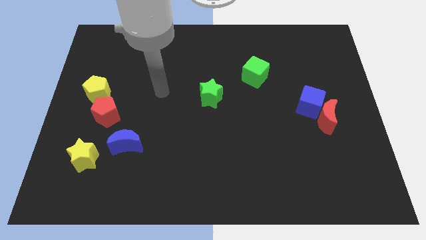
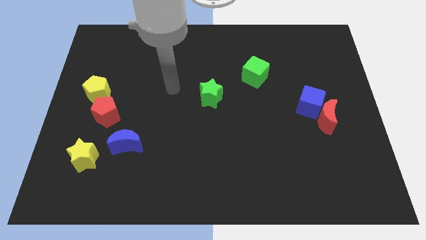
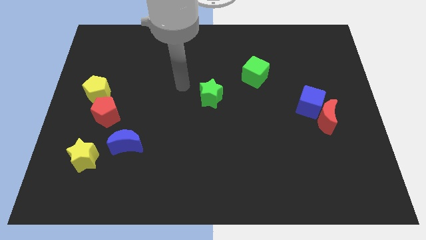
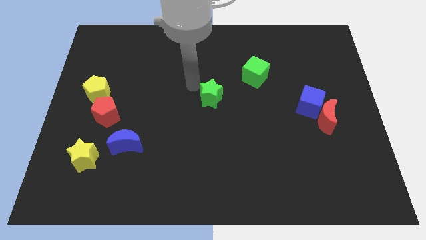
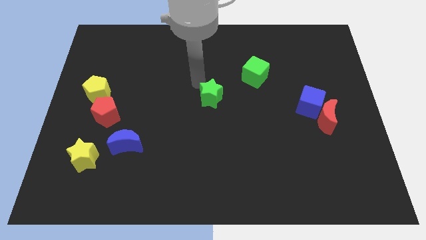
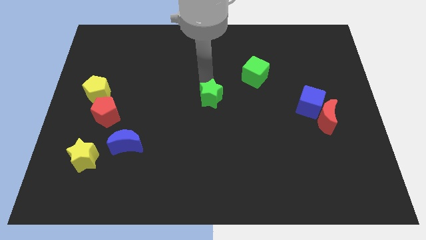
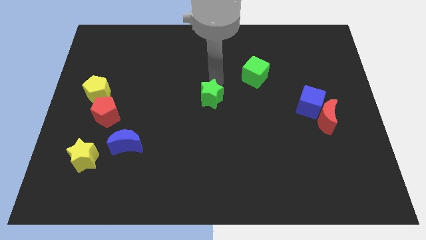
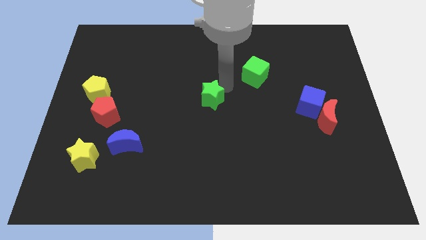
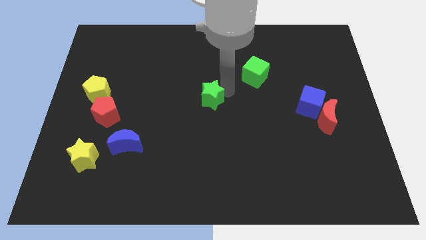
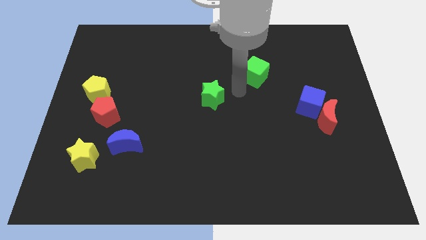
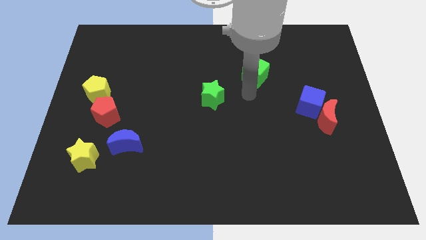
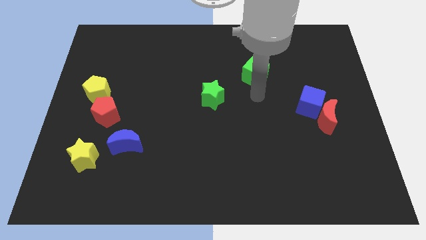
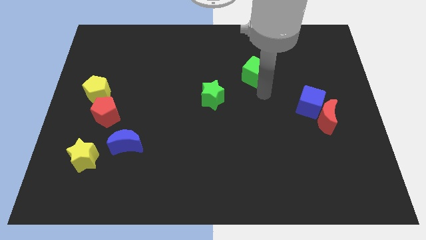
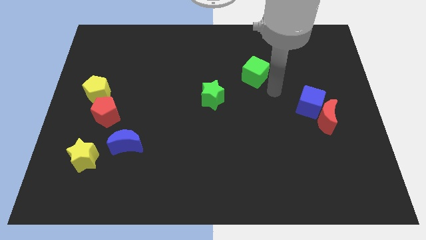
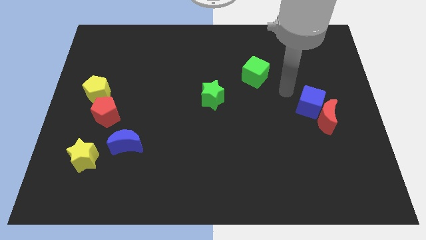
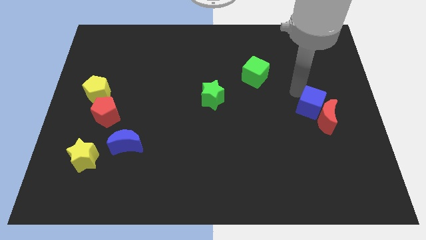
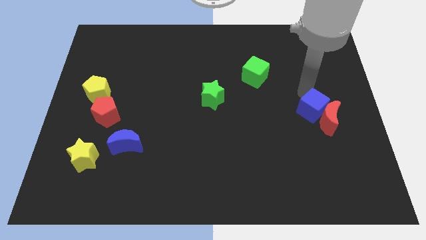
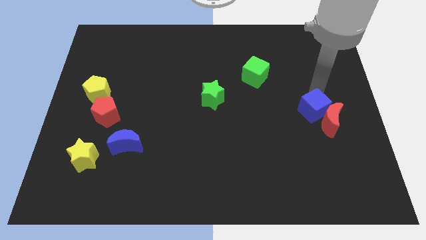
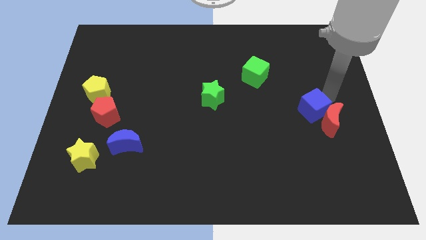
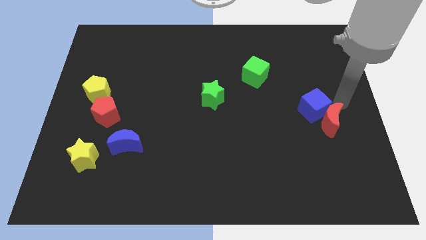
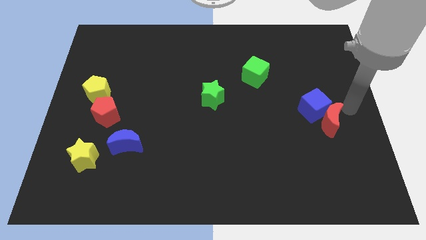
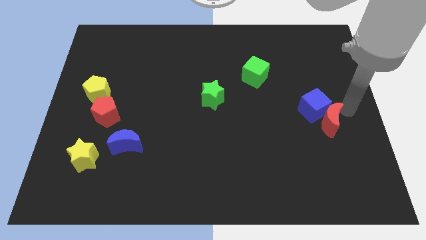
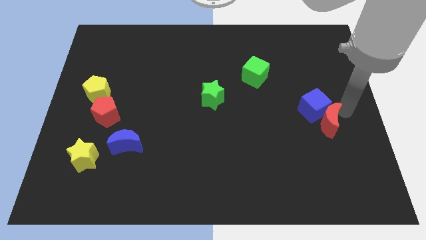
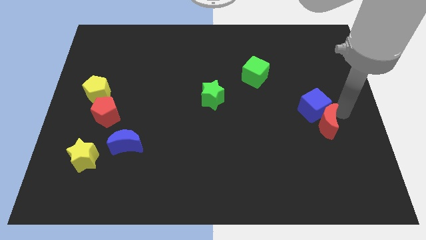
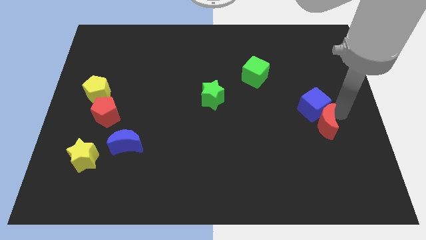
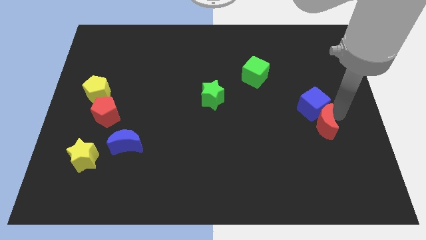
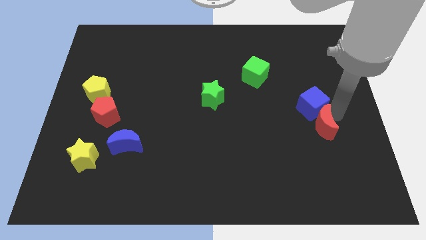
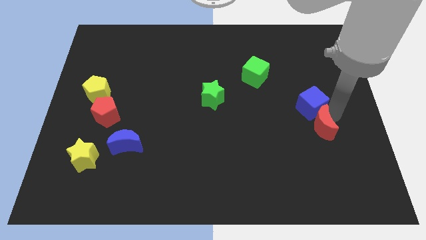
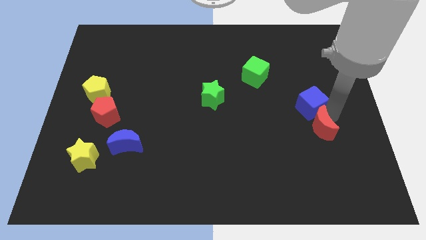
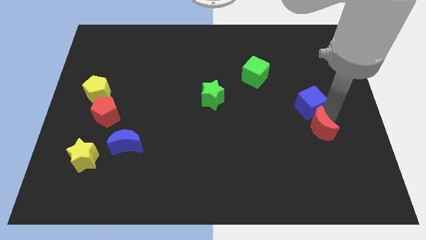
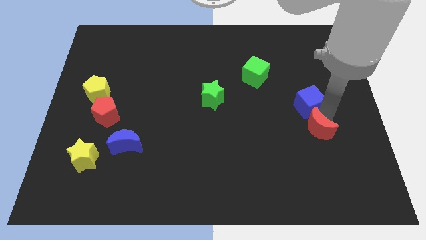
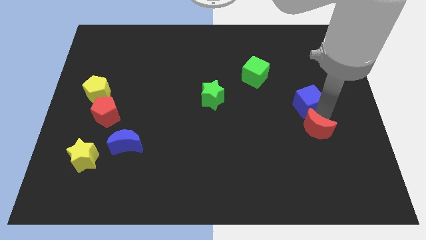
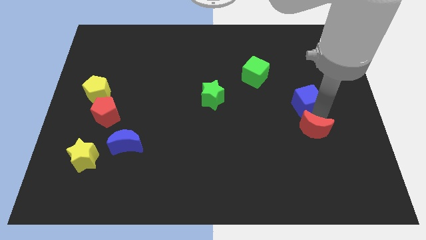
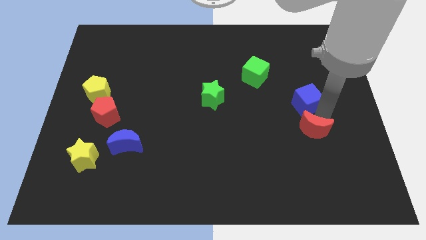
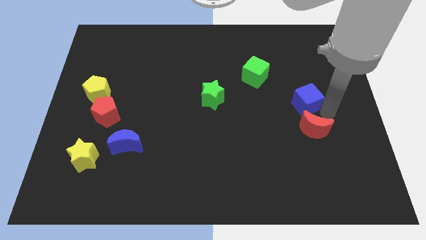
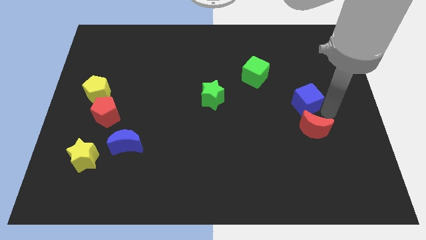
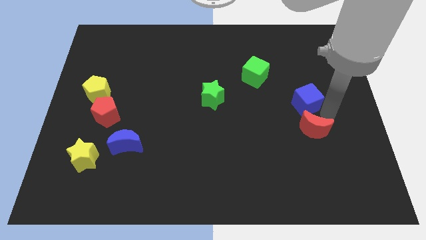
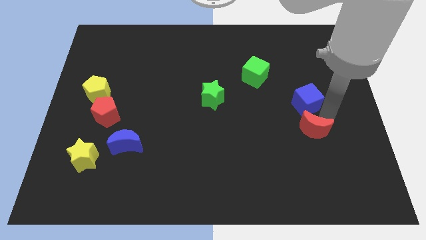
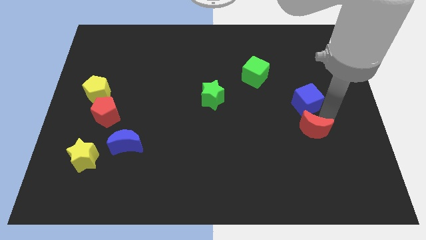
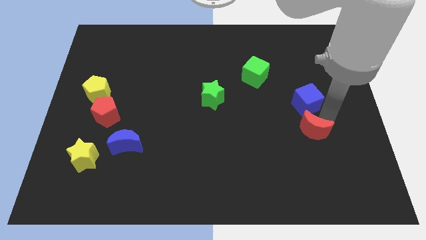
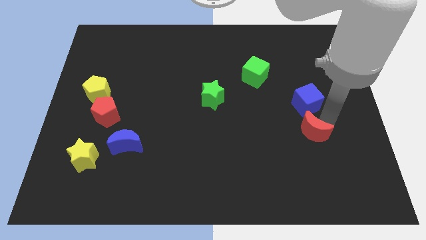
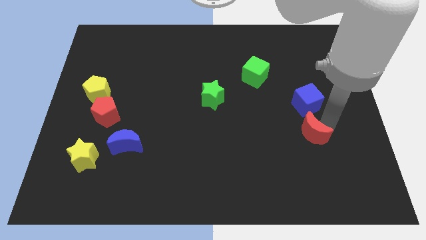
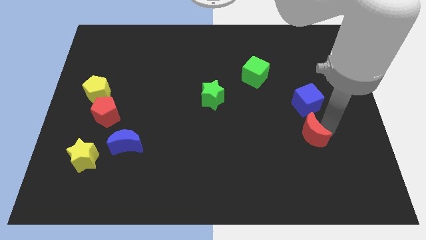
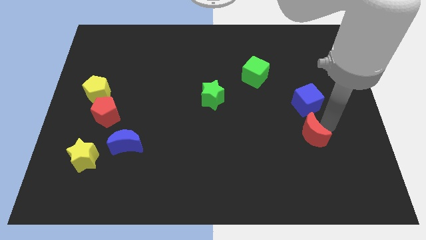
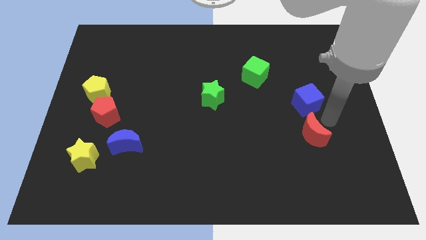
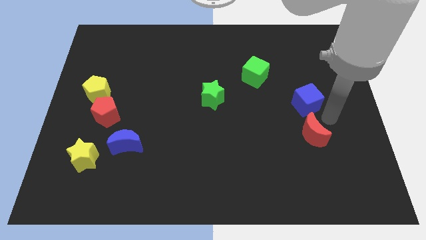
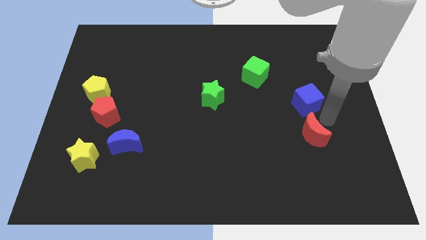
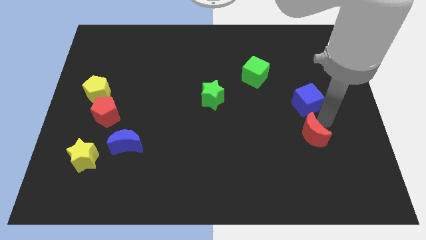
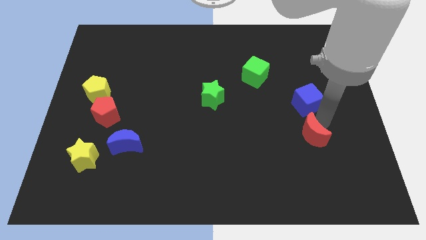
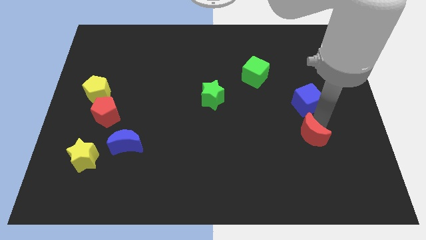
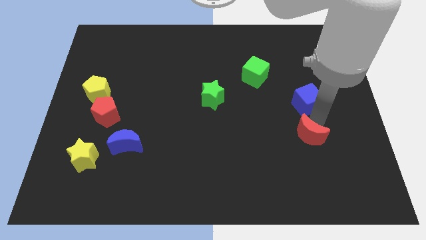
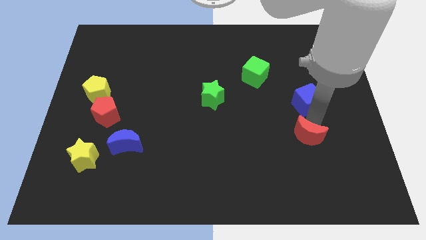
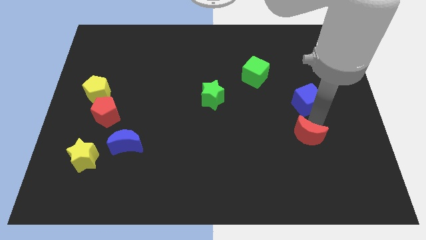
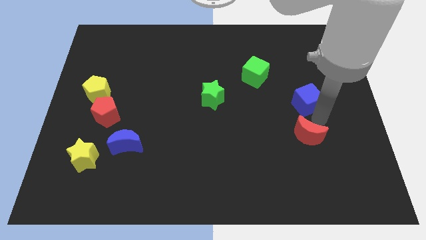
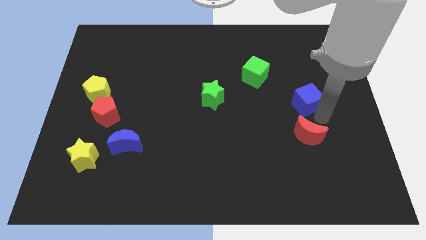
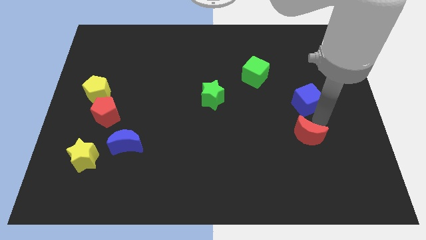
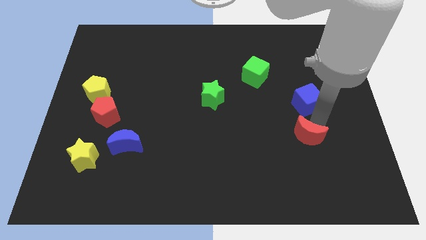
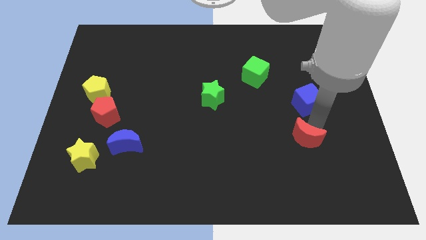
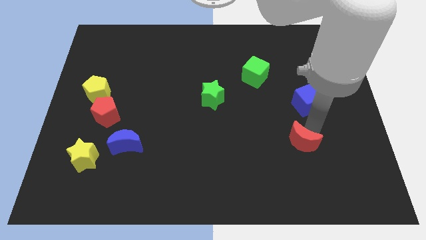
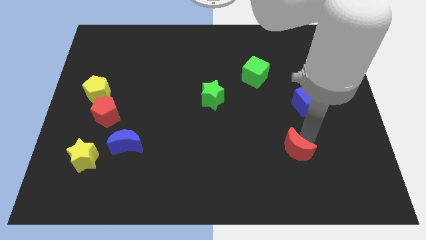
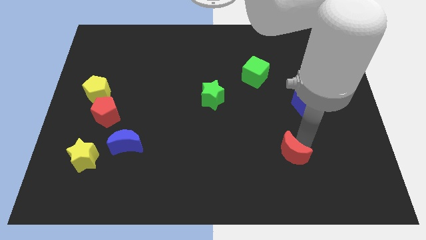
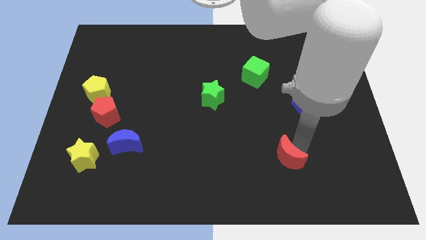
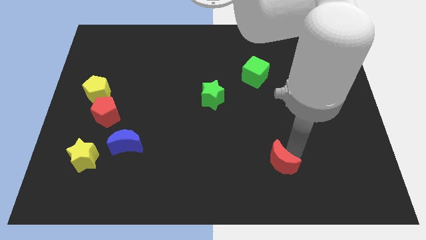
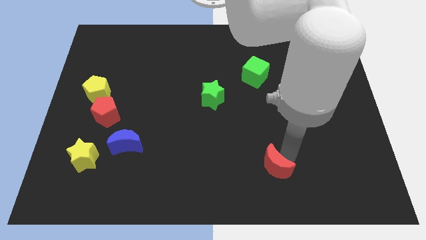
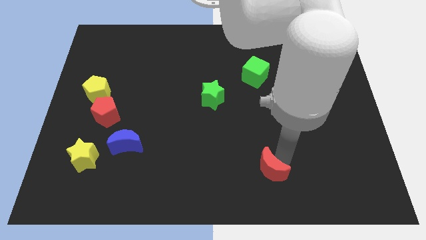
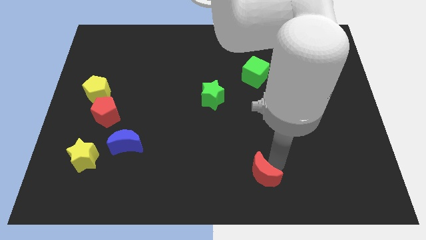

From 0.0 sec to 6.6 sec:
put the red moon to the bottom
